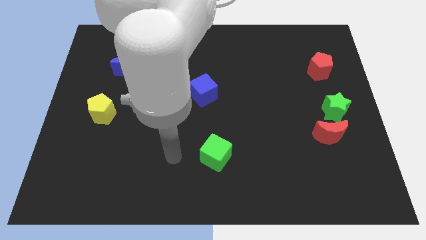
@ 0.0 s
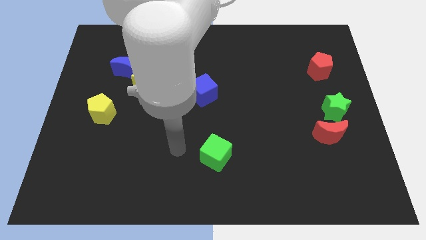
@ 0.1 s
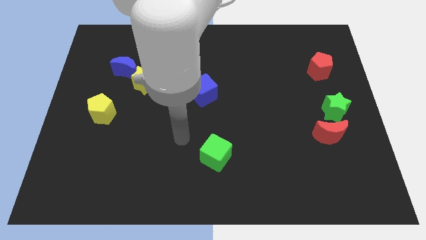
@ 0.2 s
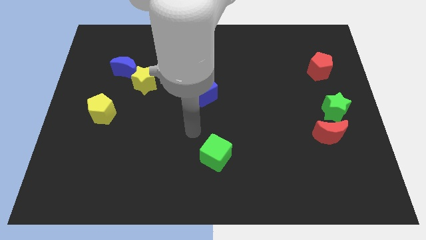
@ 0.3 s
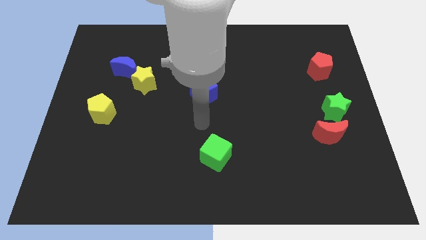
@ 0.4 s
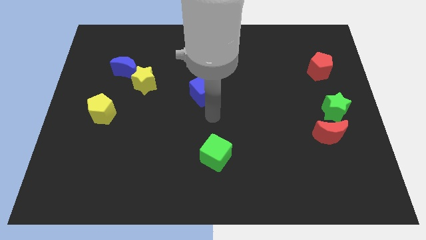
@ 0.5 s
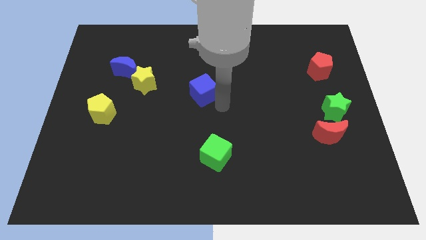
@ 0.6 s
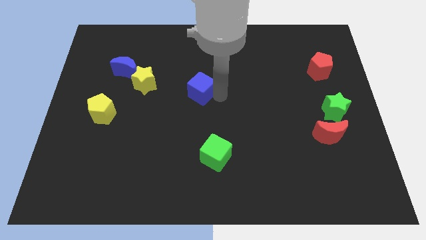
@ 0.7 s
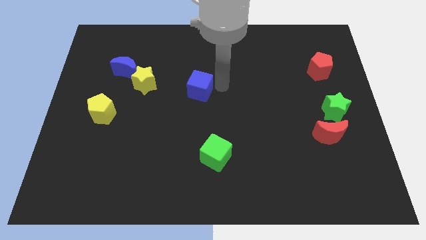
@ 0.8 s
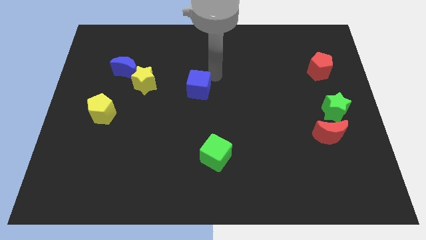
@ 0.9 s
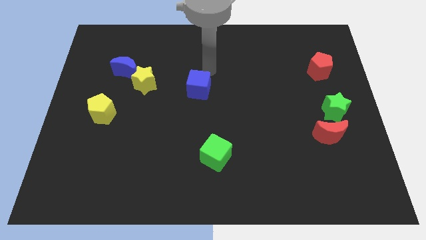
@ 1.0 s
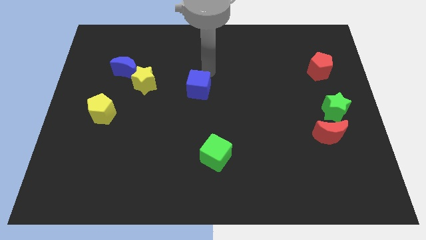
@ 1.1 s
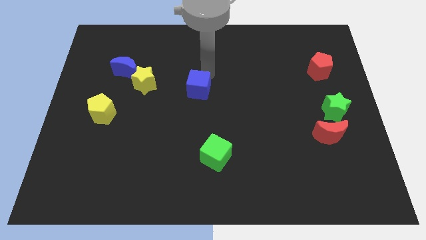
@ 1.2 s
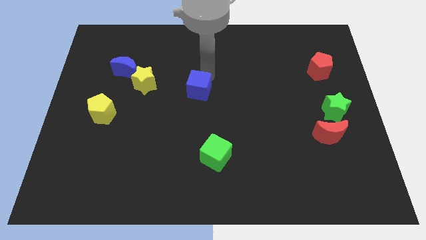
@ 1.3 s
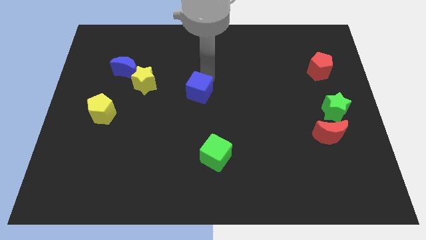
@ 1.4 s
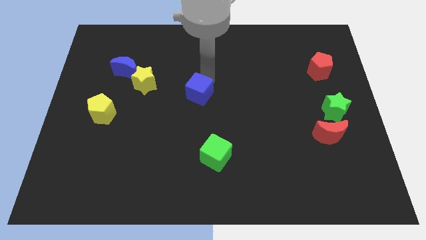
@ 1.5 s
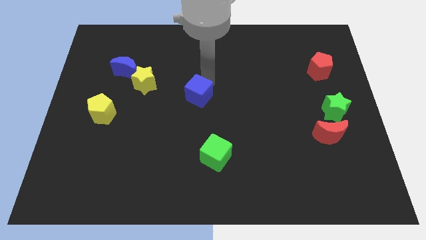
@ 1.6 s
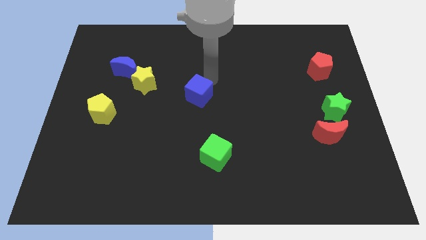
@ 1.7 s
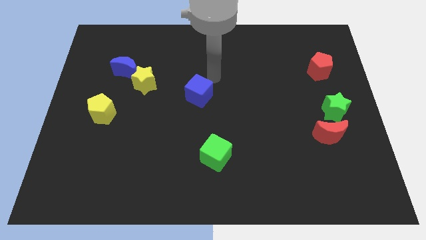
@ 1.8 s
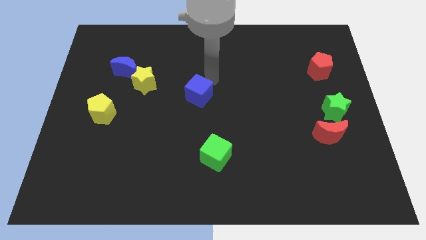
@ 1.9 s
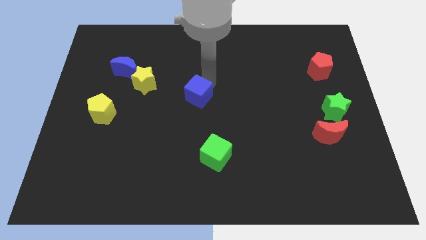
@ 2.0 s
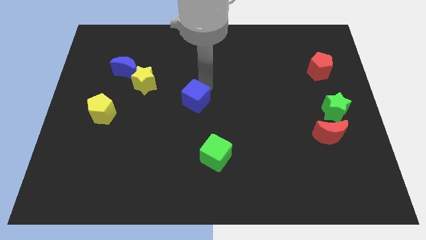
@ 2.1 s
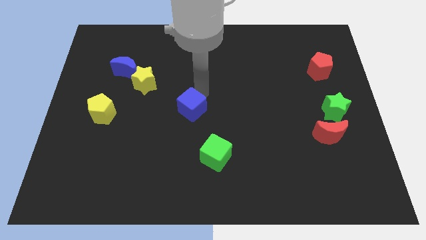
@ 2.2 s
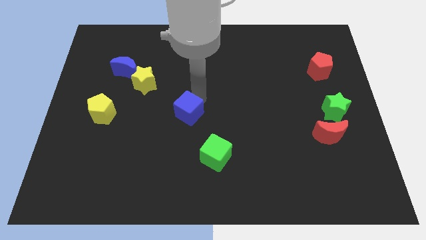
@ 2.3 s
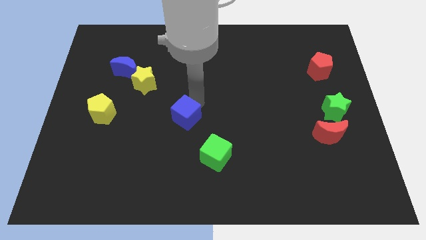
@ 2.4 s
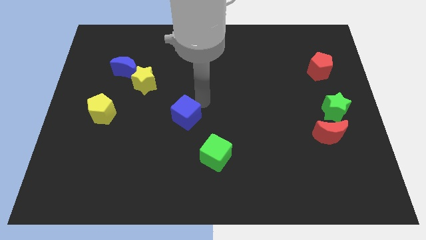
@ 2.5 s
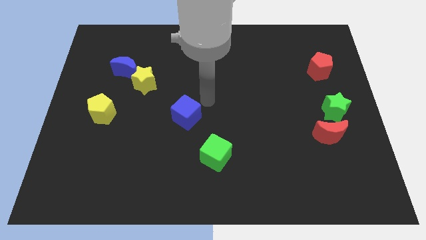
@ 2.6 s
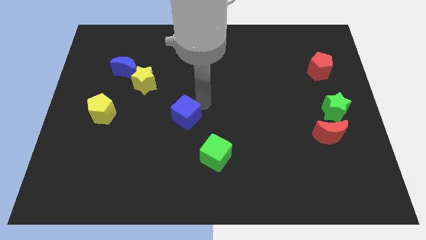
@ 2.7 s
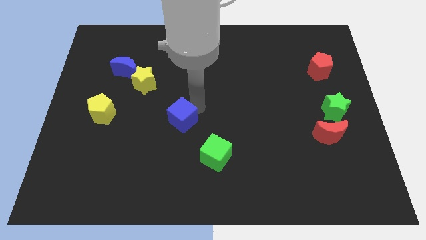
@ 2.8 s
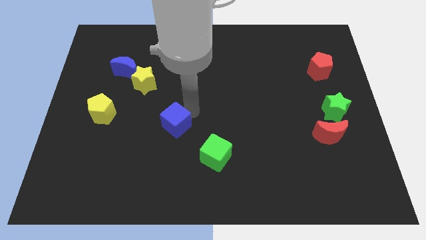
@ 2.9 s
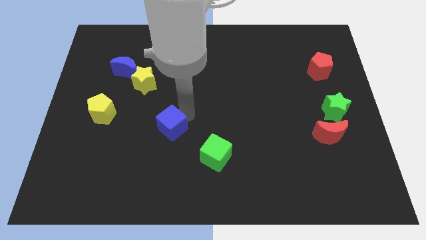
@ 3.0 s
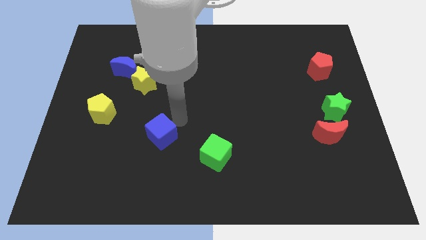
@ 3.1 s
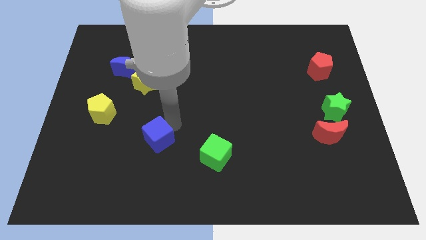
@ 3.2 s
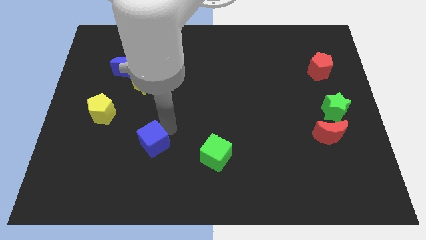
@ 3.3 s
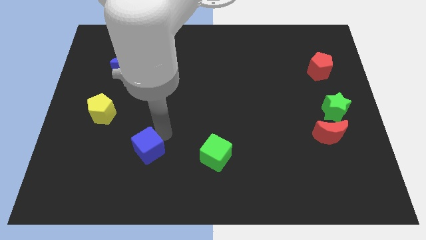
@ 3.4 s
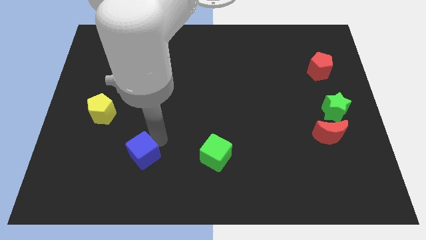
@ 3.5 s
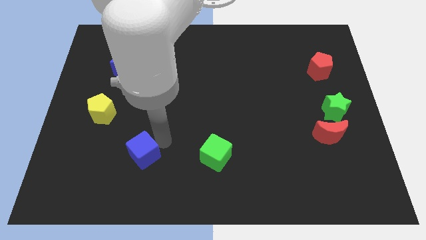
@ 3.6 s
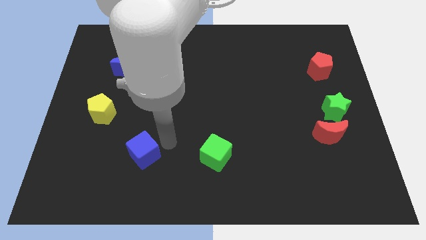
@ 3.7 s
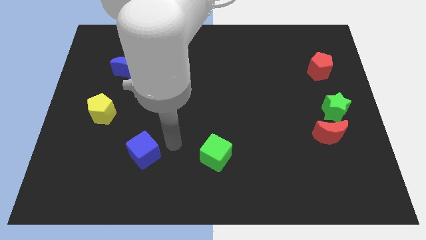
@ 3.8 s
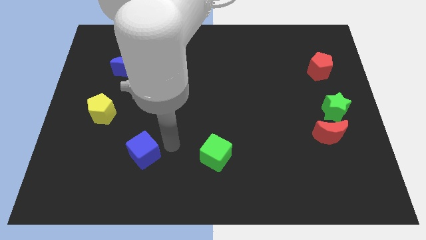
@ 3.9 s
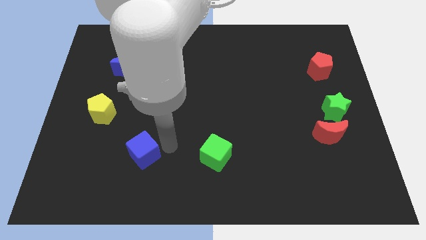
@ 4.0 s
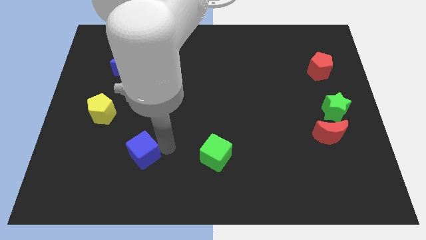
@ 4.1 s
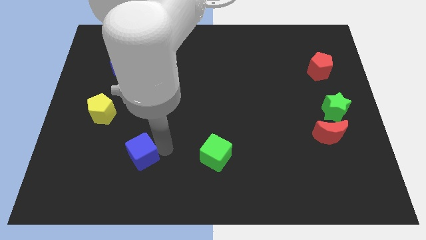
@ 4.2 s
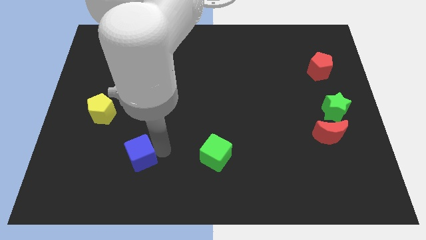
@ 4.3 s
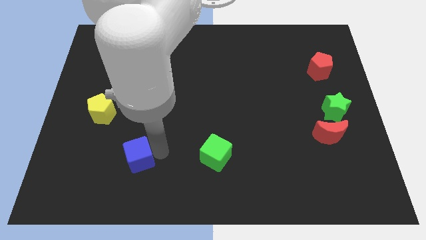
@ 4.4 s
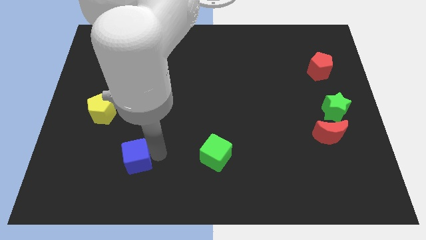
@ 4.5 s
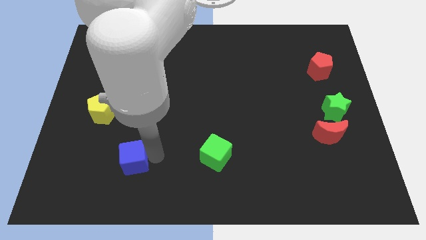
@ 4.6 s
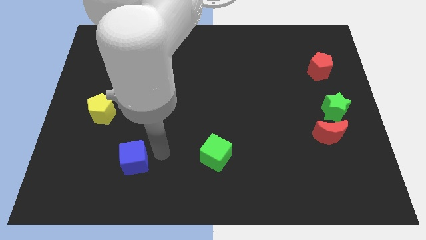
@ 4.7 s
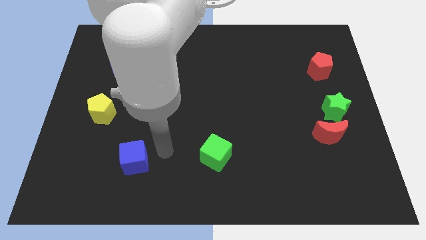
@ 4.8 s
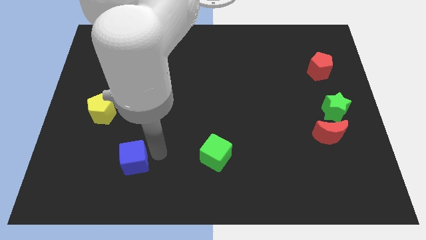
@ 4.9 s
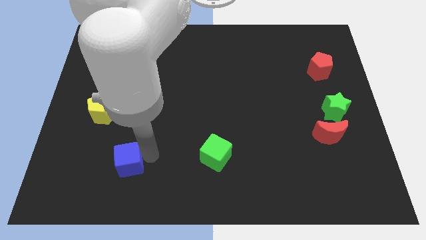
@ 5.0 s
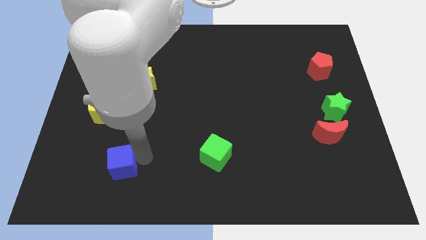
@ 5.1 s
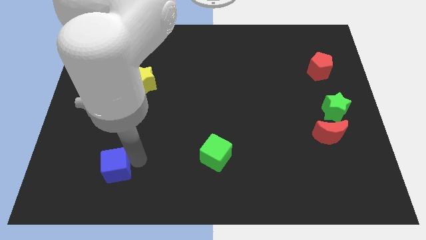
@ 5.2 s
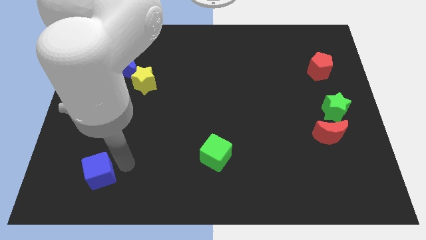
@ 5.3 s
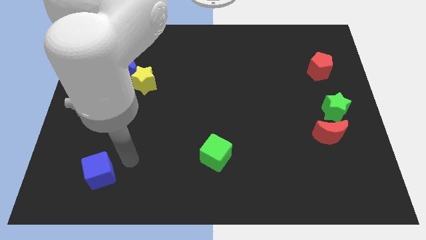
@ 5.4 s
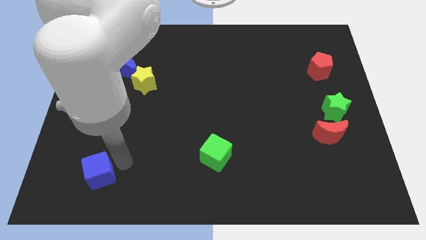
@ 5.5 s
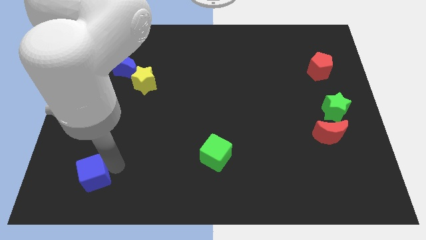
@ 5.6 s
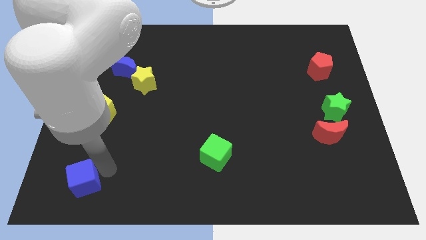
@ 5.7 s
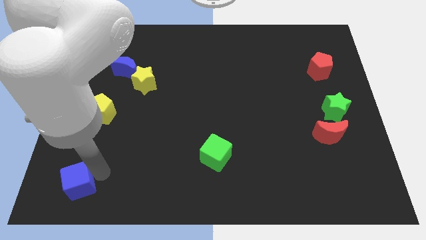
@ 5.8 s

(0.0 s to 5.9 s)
push the blue cube to the bottom left corner
